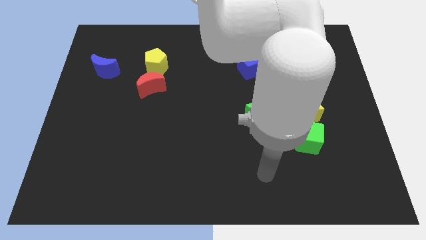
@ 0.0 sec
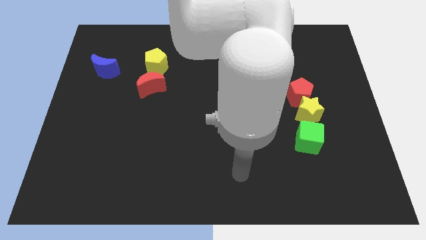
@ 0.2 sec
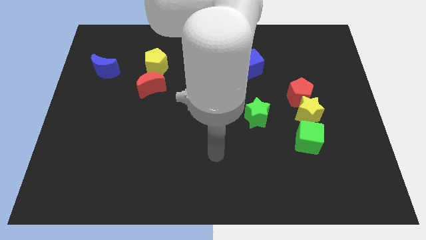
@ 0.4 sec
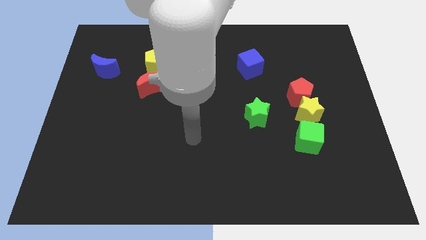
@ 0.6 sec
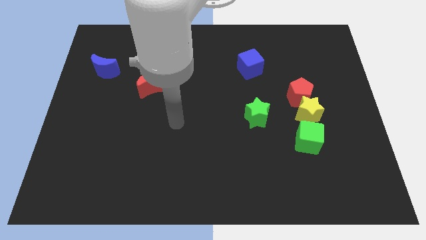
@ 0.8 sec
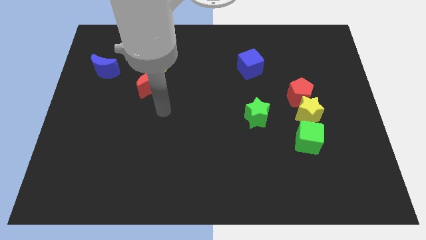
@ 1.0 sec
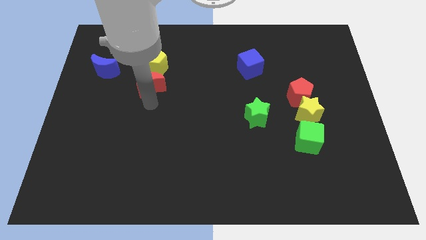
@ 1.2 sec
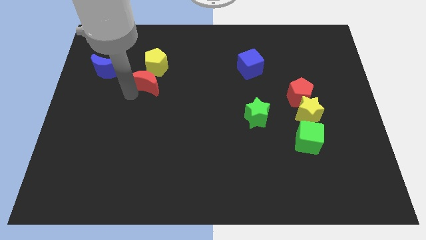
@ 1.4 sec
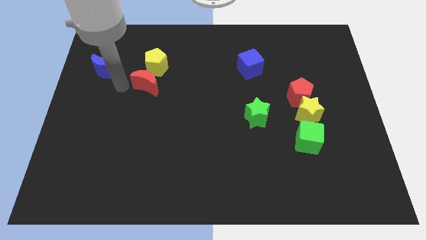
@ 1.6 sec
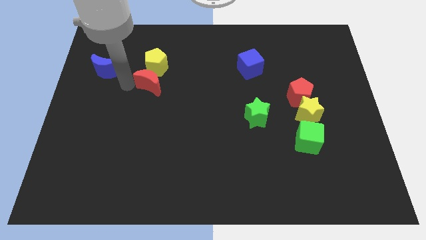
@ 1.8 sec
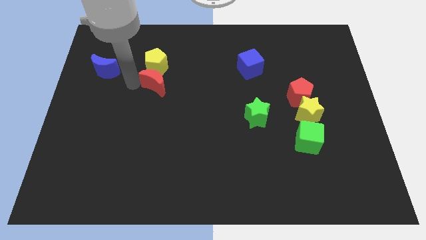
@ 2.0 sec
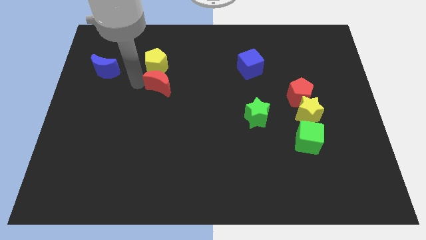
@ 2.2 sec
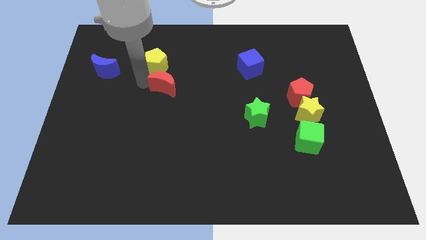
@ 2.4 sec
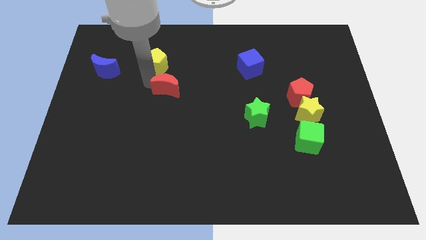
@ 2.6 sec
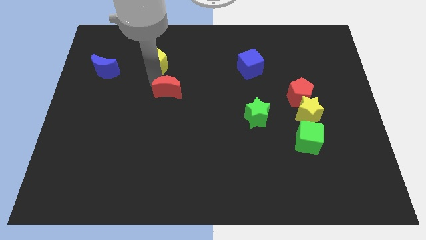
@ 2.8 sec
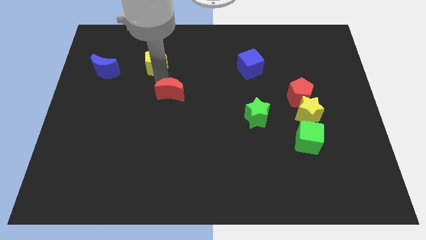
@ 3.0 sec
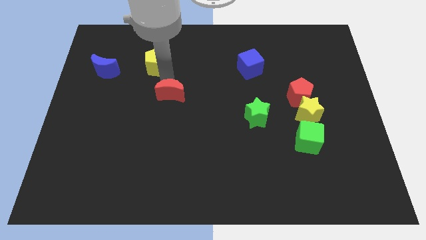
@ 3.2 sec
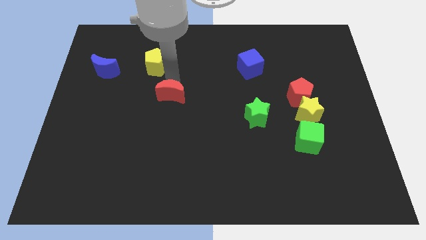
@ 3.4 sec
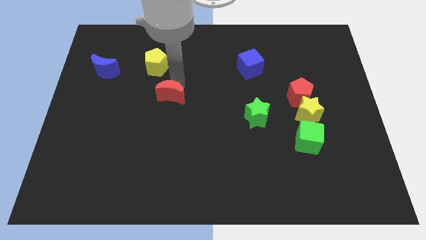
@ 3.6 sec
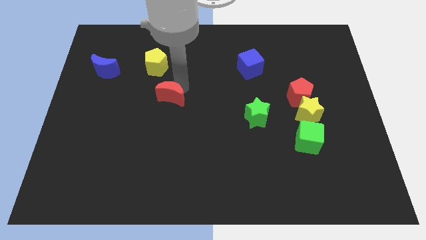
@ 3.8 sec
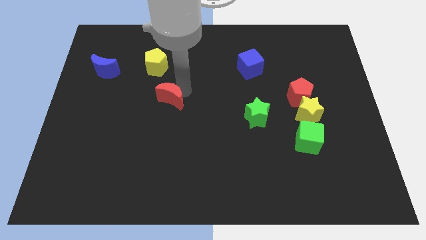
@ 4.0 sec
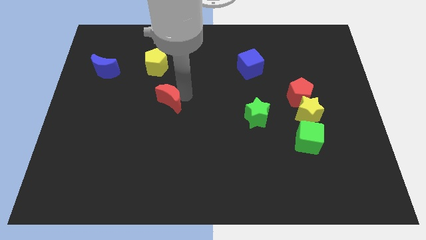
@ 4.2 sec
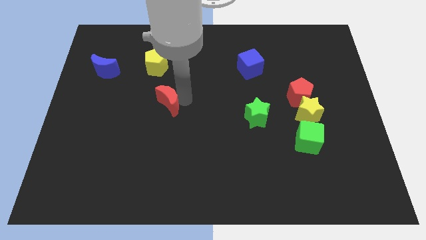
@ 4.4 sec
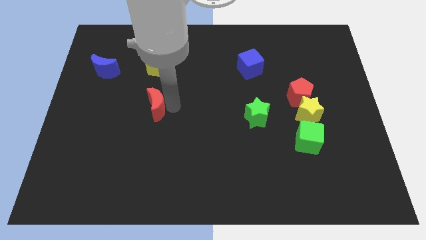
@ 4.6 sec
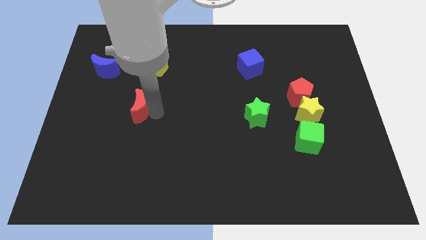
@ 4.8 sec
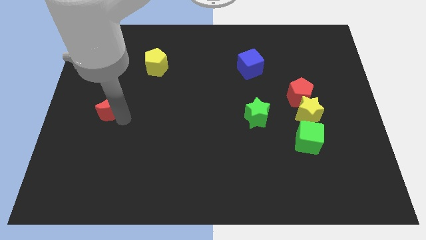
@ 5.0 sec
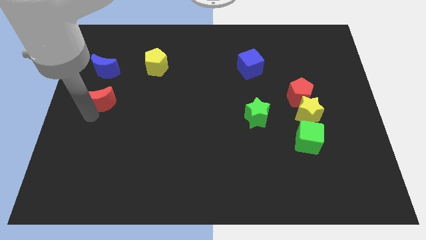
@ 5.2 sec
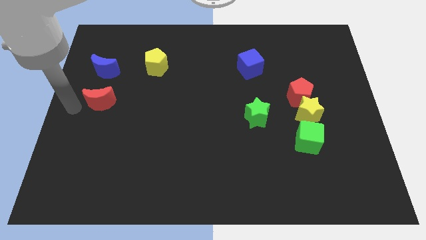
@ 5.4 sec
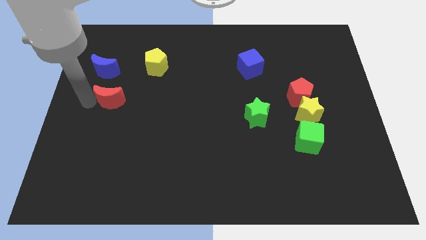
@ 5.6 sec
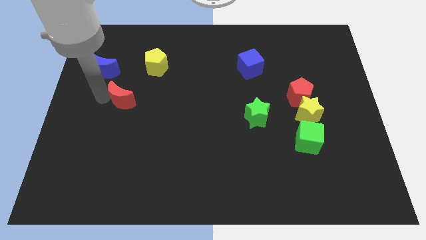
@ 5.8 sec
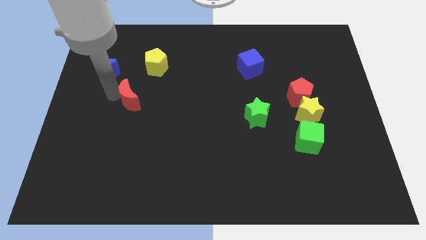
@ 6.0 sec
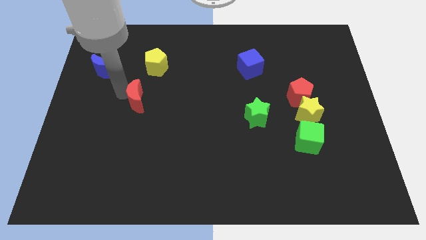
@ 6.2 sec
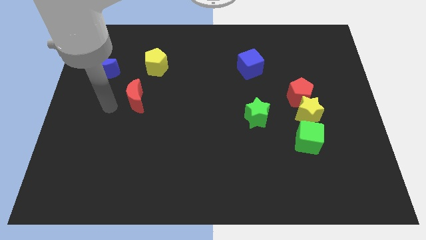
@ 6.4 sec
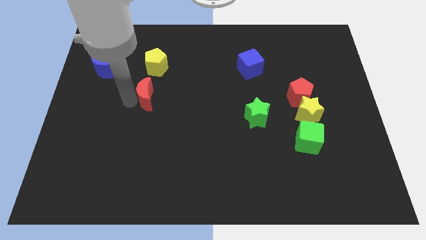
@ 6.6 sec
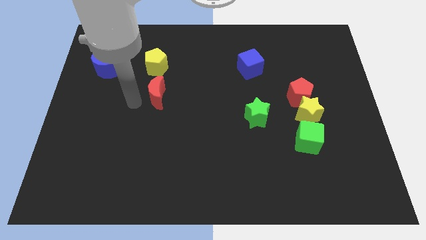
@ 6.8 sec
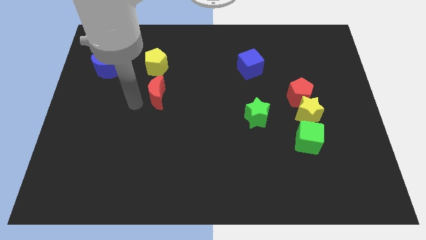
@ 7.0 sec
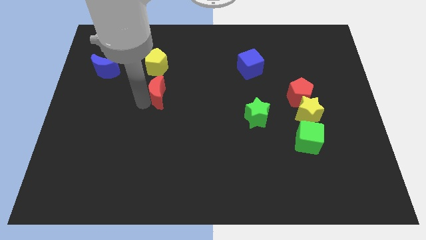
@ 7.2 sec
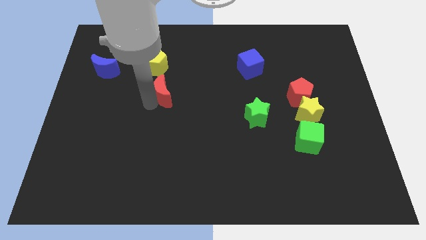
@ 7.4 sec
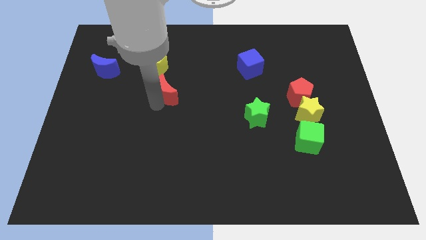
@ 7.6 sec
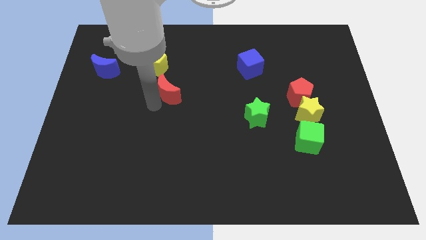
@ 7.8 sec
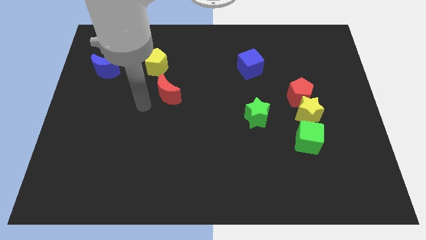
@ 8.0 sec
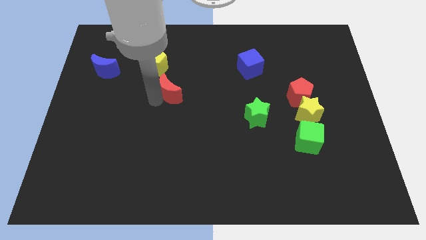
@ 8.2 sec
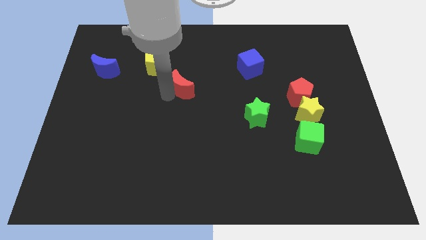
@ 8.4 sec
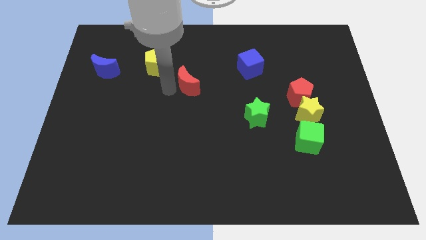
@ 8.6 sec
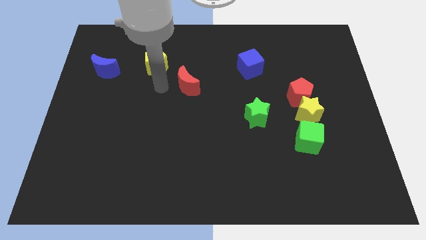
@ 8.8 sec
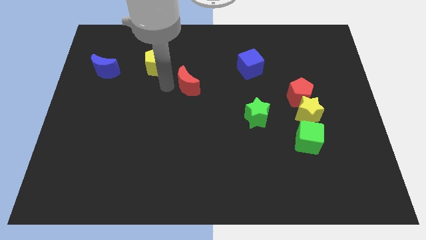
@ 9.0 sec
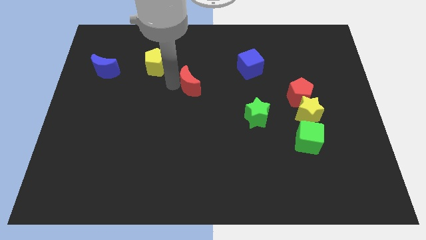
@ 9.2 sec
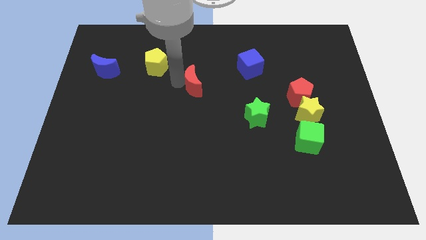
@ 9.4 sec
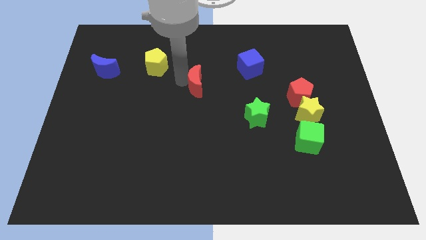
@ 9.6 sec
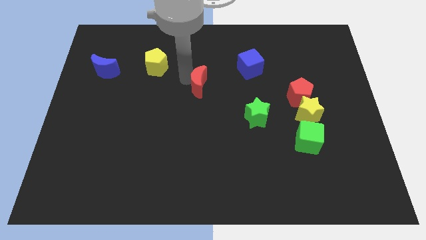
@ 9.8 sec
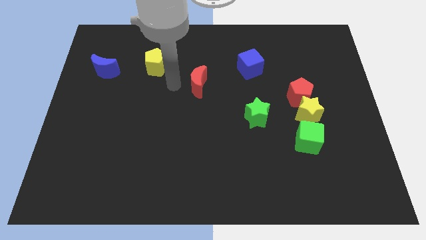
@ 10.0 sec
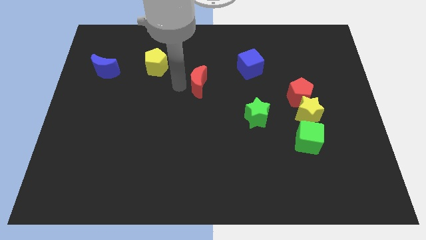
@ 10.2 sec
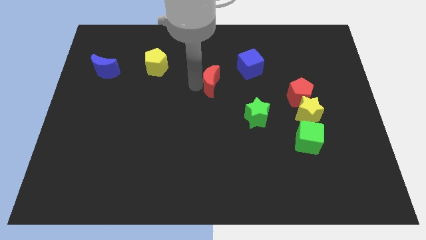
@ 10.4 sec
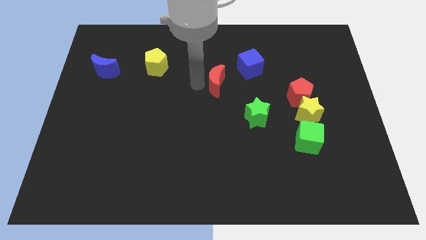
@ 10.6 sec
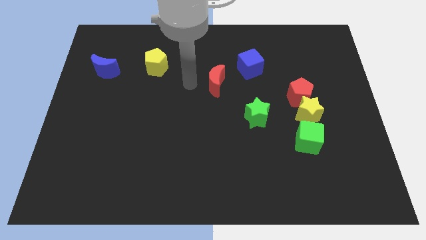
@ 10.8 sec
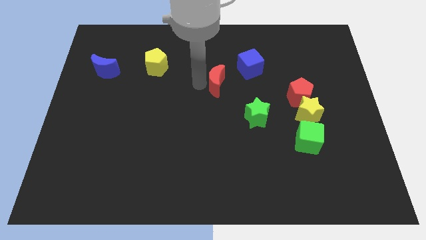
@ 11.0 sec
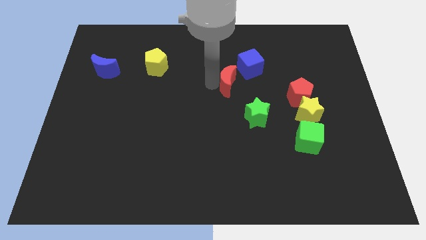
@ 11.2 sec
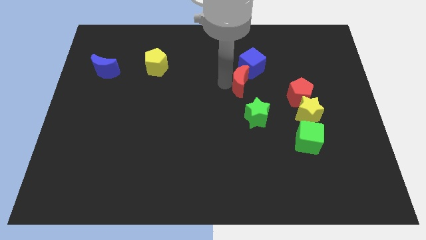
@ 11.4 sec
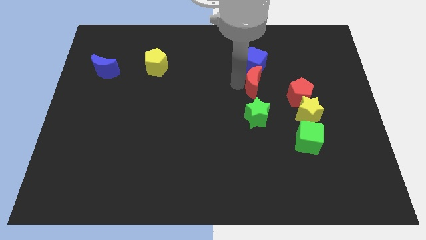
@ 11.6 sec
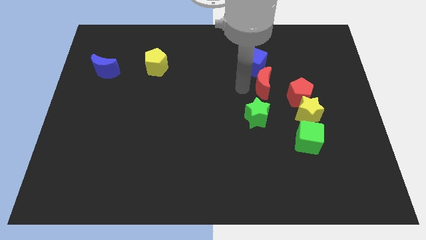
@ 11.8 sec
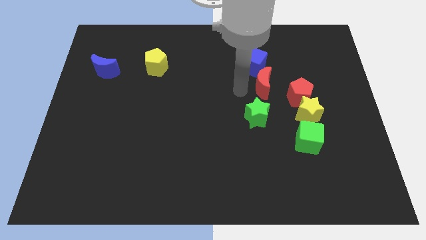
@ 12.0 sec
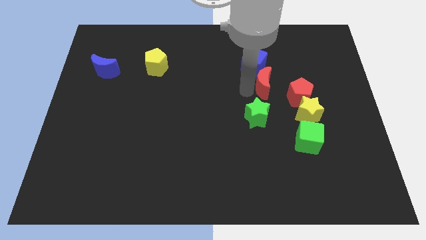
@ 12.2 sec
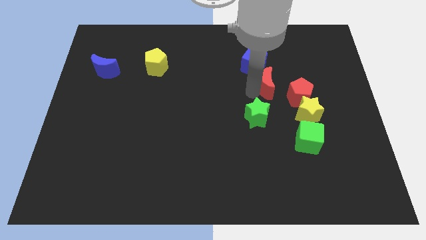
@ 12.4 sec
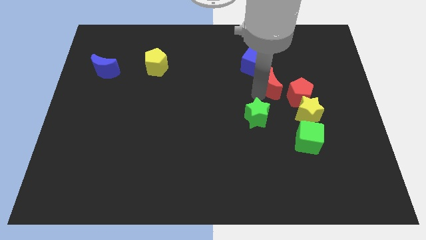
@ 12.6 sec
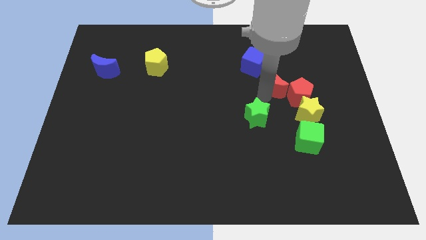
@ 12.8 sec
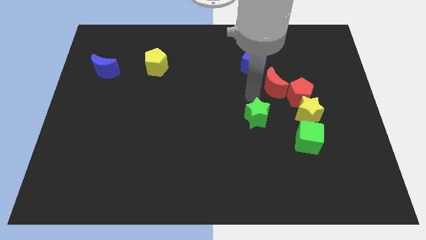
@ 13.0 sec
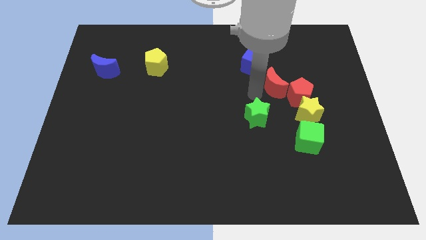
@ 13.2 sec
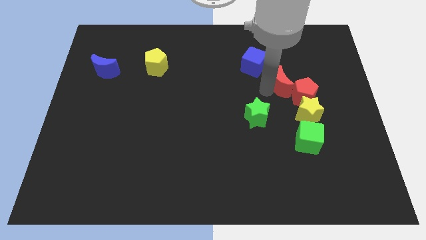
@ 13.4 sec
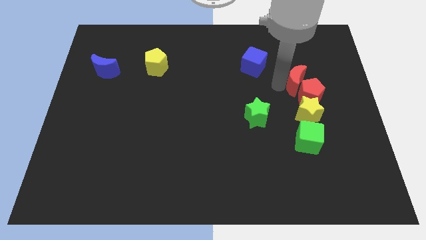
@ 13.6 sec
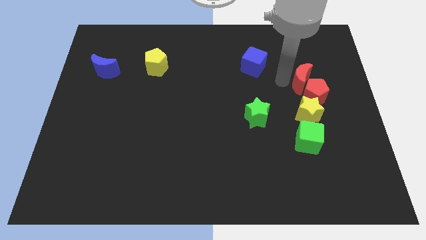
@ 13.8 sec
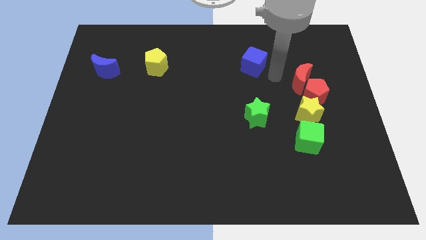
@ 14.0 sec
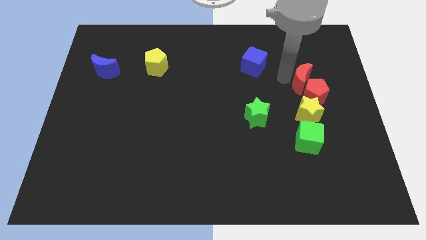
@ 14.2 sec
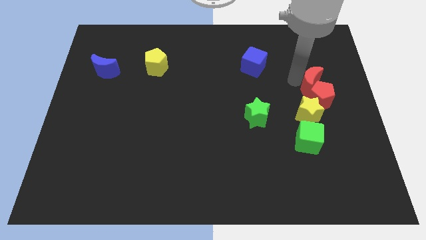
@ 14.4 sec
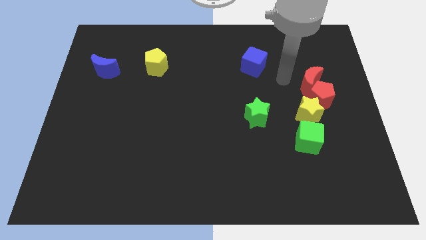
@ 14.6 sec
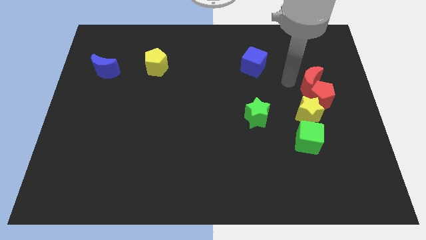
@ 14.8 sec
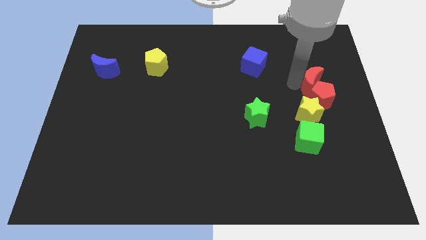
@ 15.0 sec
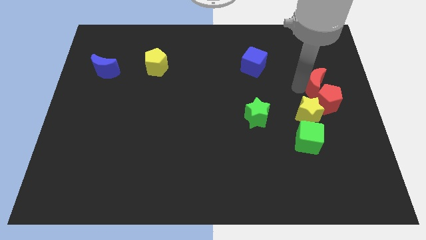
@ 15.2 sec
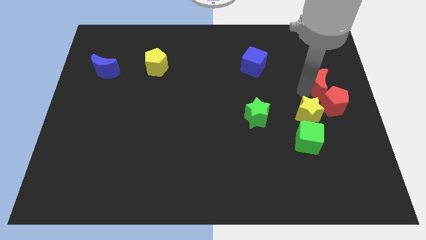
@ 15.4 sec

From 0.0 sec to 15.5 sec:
move the red moon to the right side
